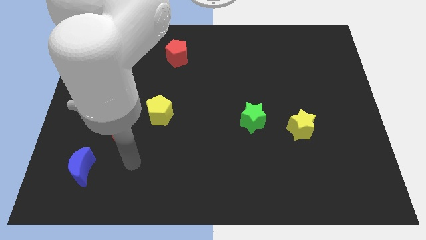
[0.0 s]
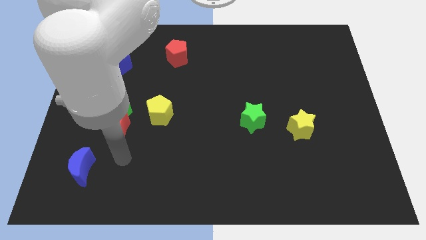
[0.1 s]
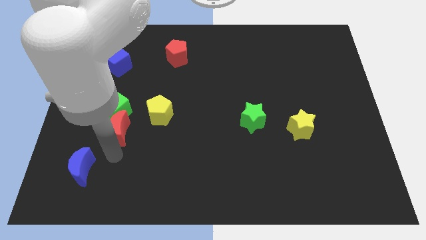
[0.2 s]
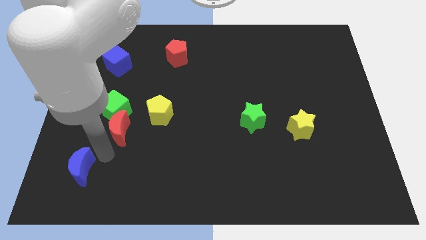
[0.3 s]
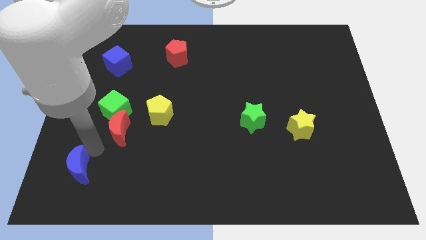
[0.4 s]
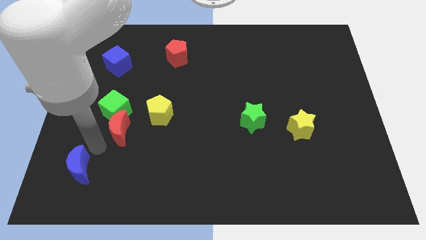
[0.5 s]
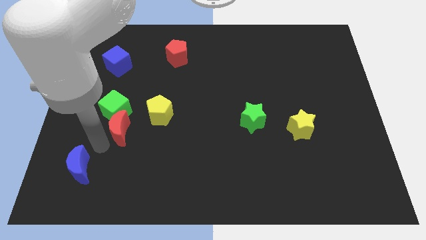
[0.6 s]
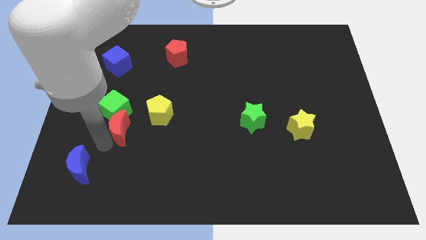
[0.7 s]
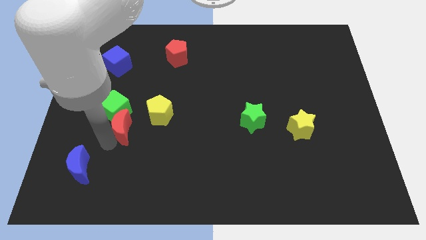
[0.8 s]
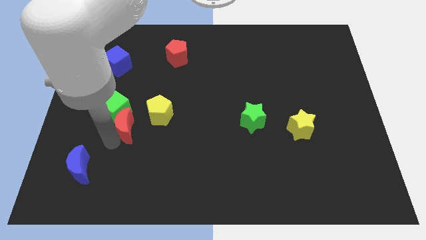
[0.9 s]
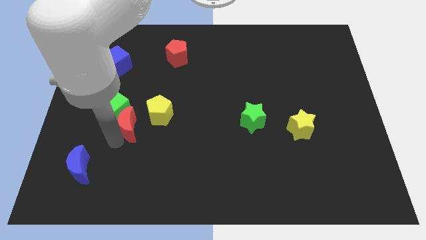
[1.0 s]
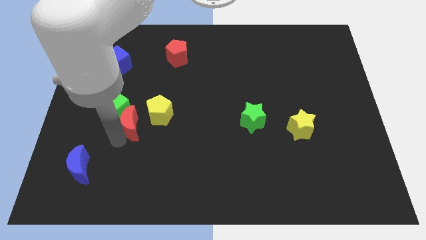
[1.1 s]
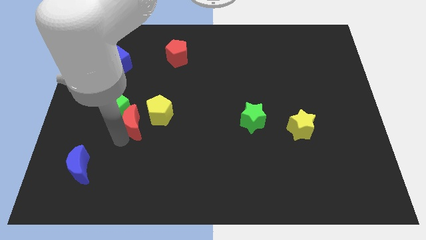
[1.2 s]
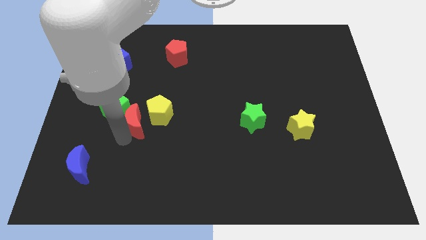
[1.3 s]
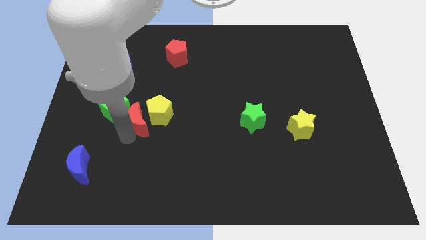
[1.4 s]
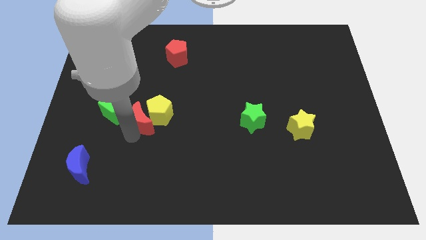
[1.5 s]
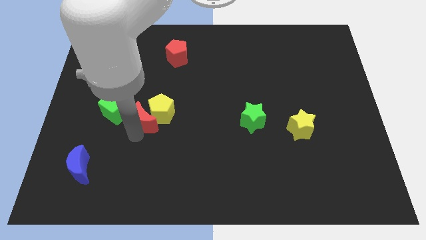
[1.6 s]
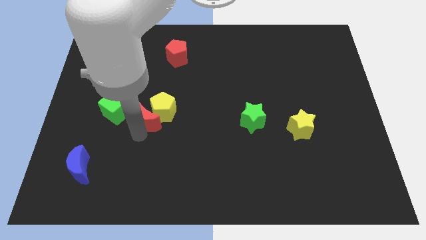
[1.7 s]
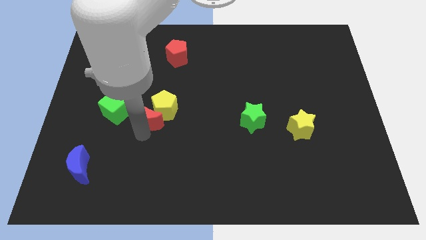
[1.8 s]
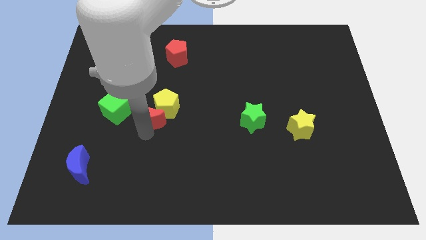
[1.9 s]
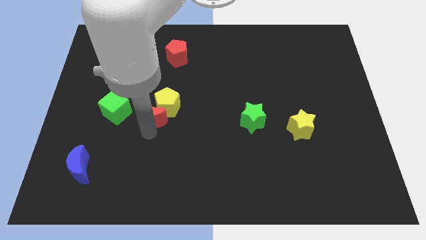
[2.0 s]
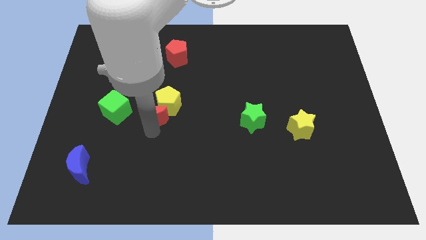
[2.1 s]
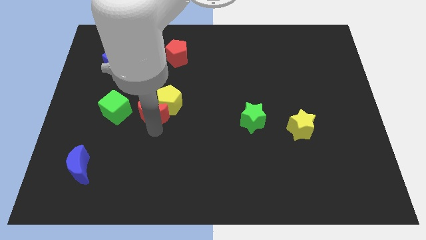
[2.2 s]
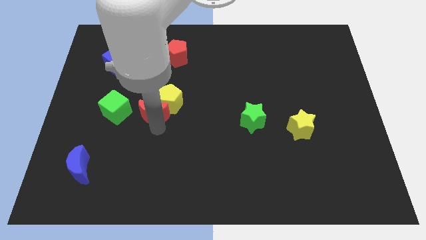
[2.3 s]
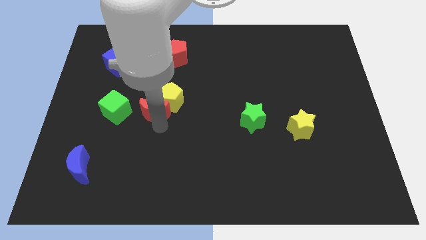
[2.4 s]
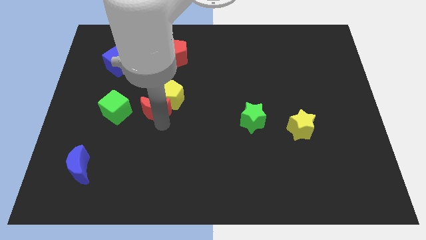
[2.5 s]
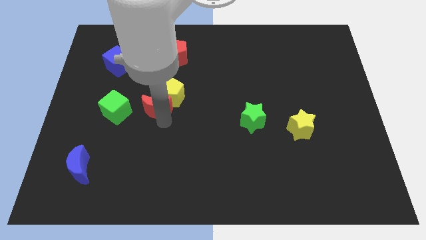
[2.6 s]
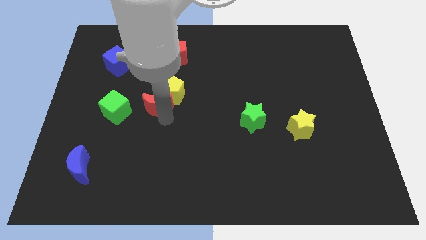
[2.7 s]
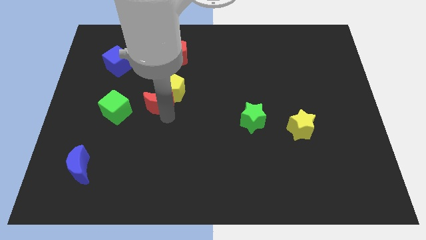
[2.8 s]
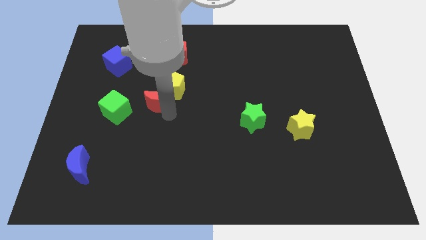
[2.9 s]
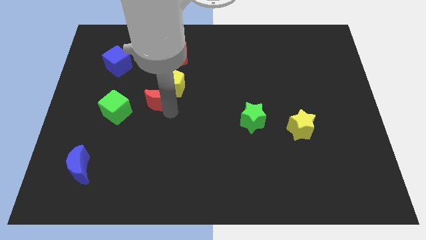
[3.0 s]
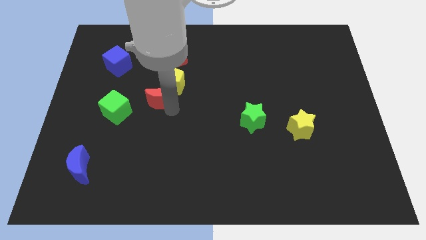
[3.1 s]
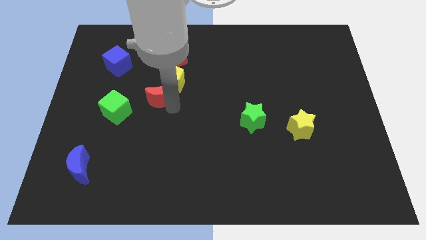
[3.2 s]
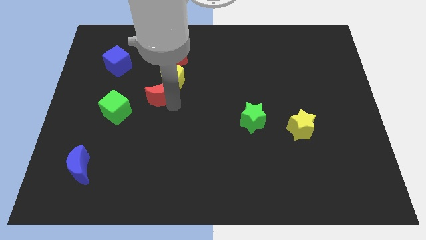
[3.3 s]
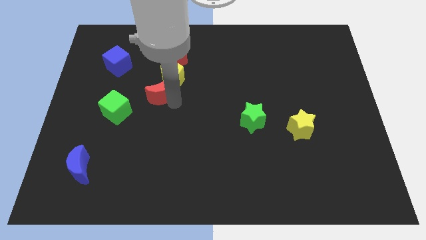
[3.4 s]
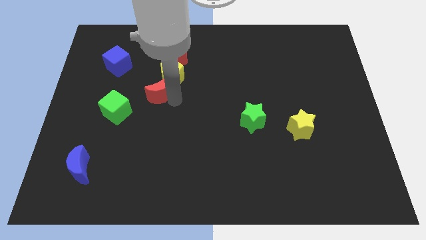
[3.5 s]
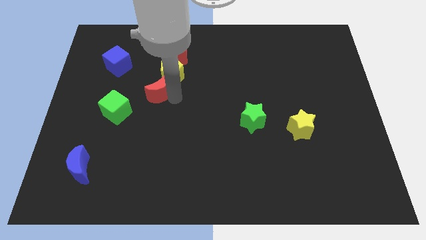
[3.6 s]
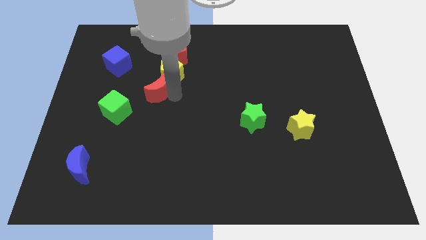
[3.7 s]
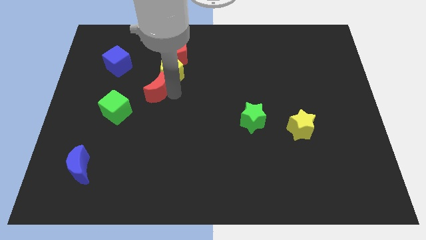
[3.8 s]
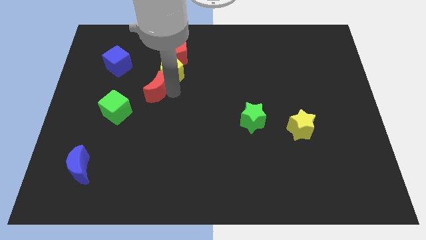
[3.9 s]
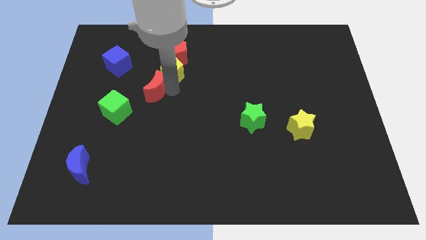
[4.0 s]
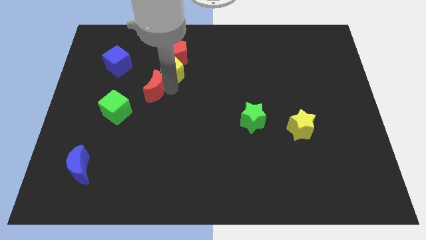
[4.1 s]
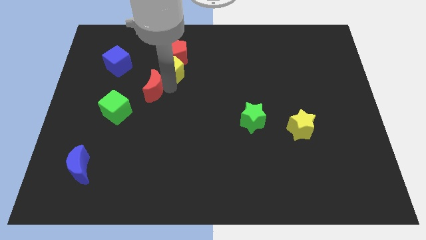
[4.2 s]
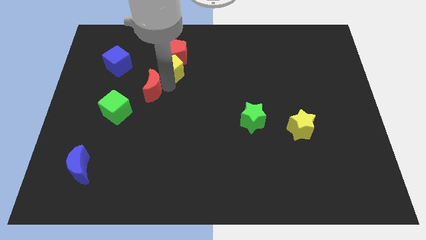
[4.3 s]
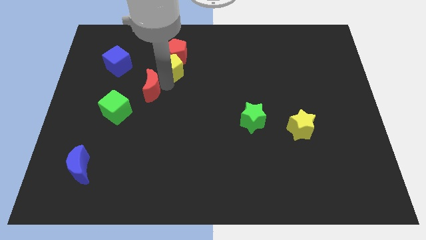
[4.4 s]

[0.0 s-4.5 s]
push the red moon diagonally down and to the right of the blue cube

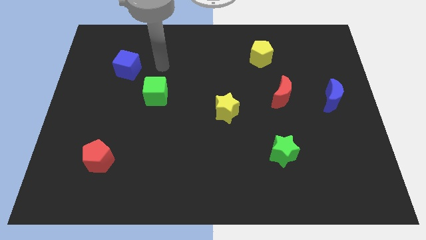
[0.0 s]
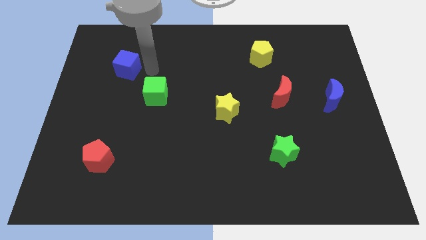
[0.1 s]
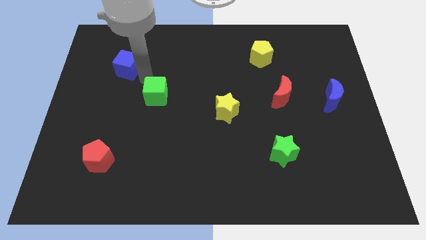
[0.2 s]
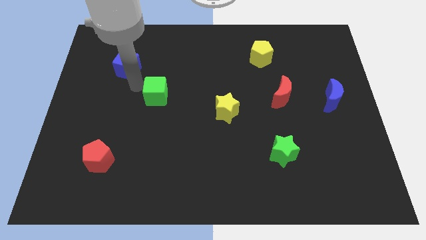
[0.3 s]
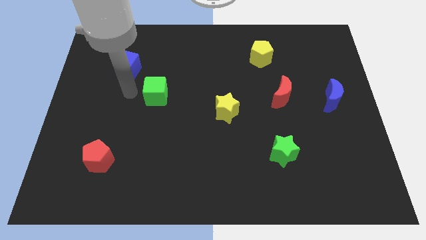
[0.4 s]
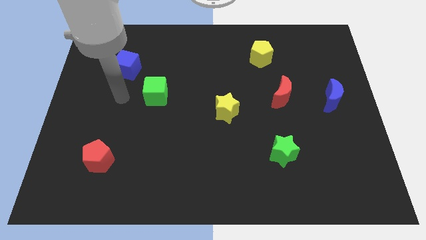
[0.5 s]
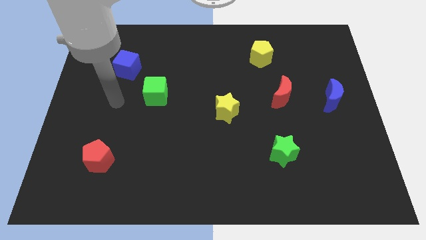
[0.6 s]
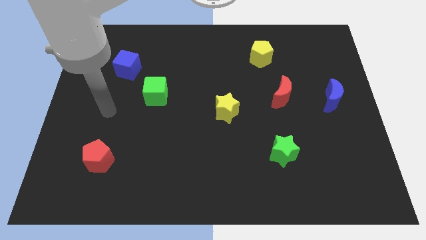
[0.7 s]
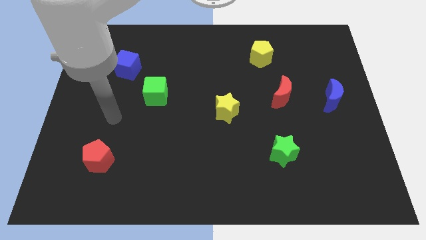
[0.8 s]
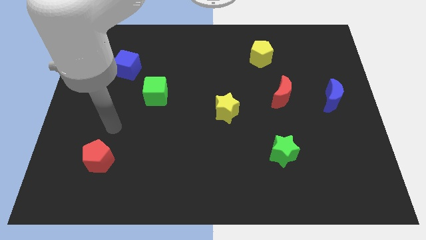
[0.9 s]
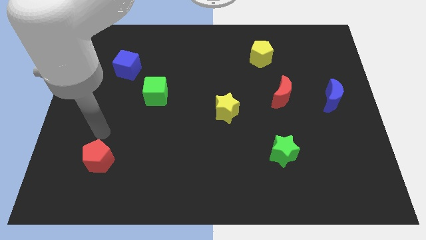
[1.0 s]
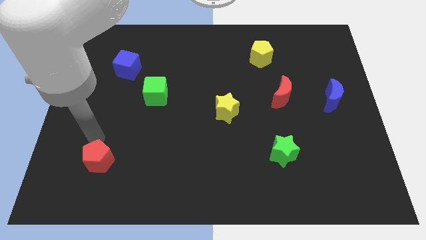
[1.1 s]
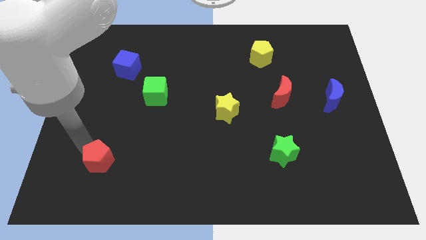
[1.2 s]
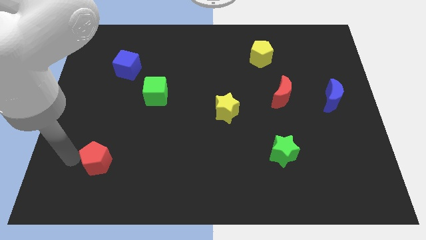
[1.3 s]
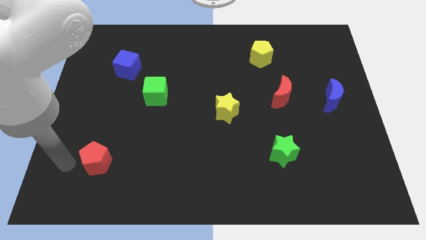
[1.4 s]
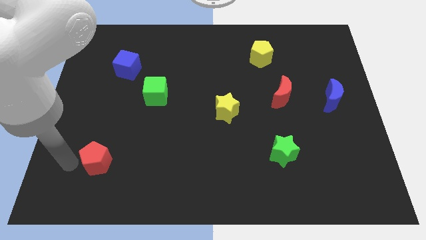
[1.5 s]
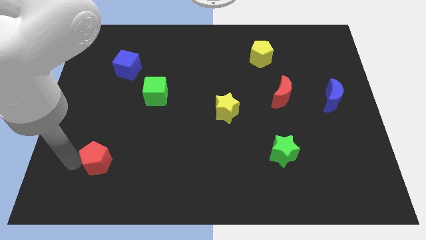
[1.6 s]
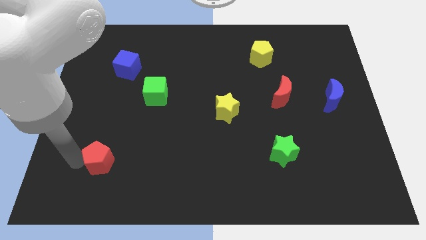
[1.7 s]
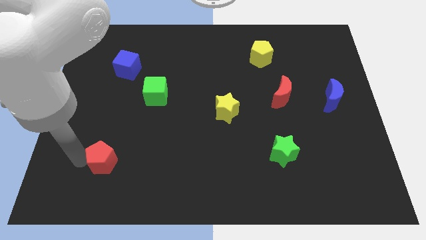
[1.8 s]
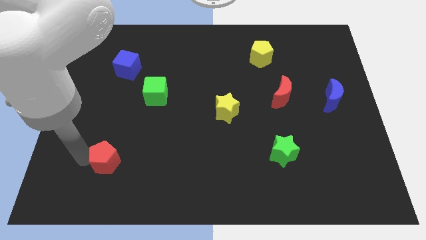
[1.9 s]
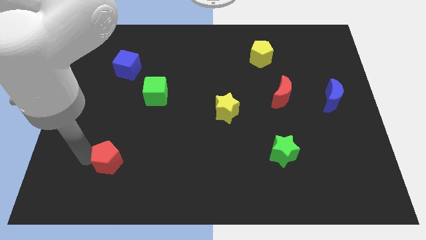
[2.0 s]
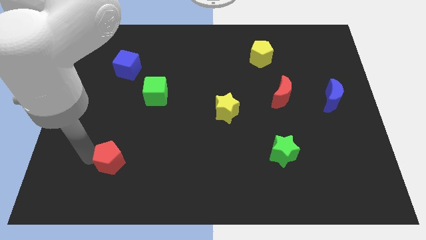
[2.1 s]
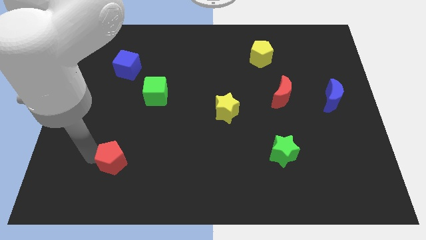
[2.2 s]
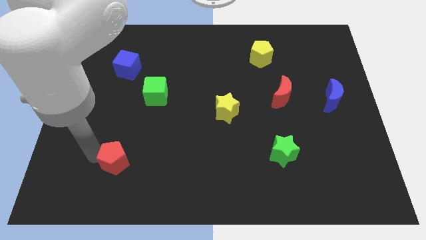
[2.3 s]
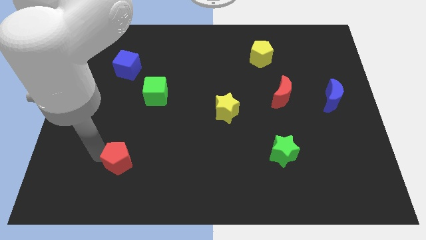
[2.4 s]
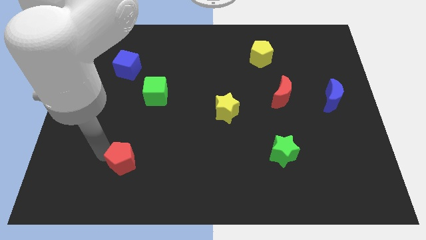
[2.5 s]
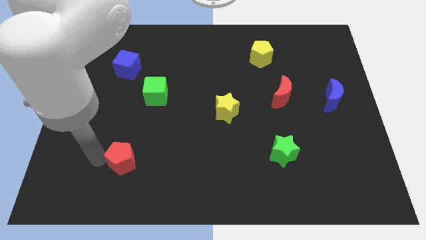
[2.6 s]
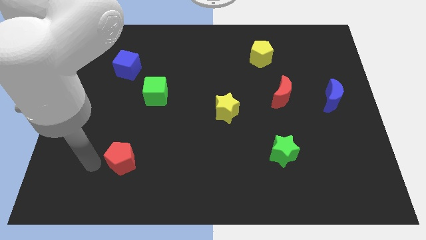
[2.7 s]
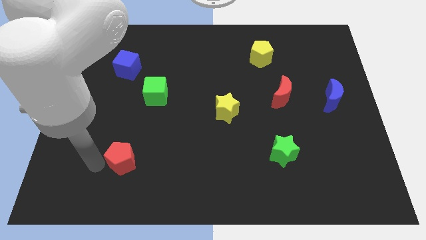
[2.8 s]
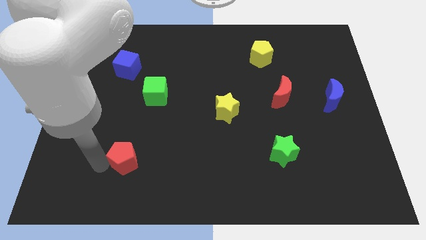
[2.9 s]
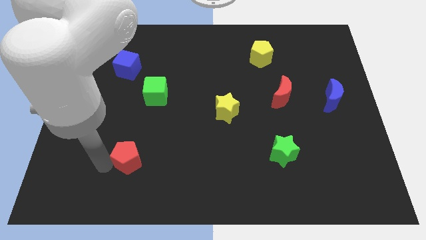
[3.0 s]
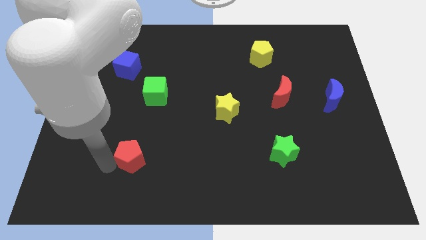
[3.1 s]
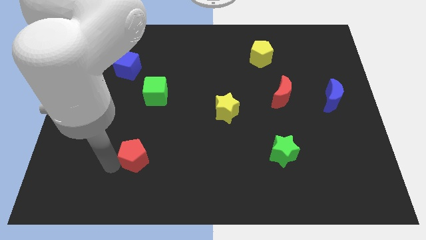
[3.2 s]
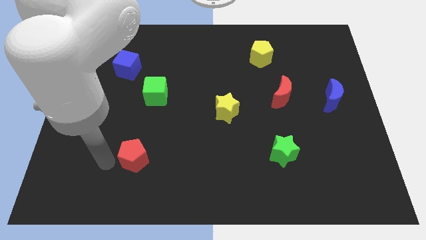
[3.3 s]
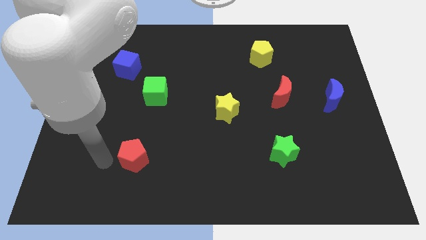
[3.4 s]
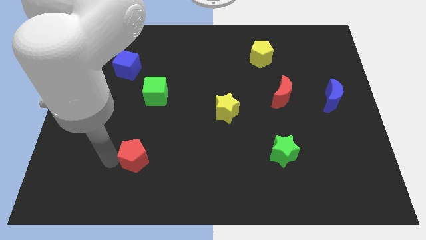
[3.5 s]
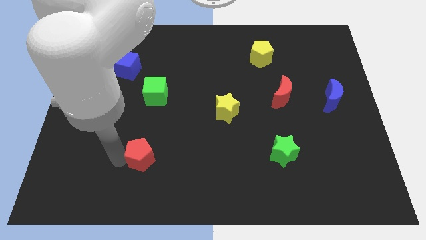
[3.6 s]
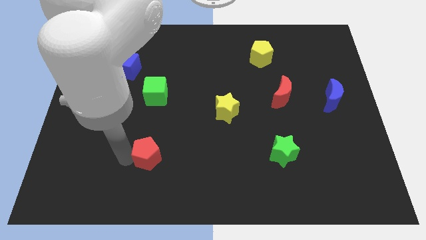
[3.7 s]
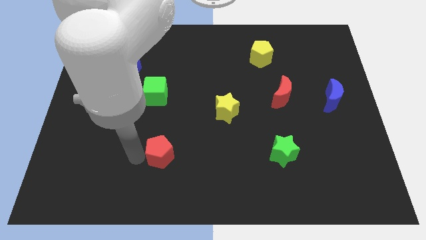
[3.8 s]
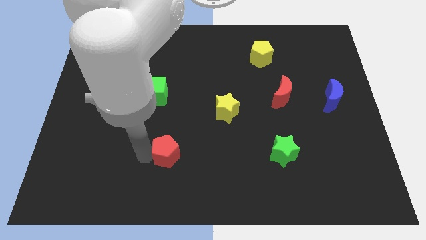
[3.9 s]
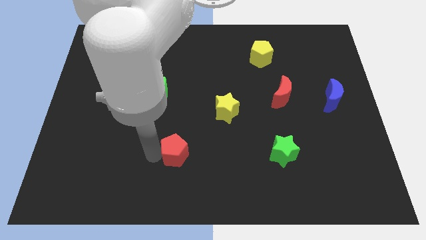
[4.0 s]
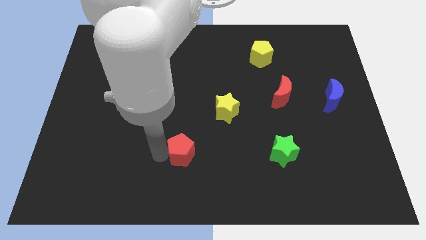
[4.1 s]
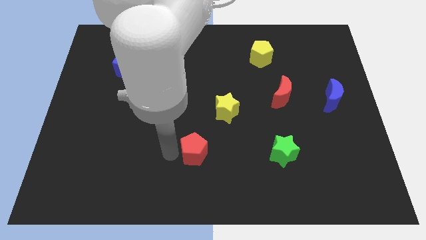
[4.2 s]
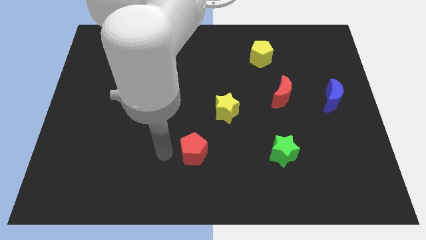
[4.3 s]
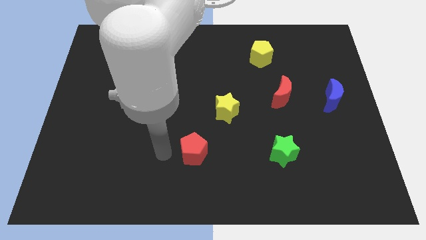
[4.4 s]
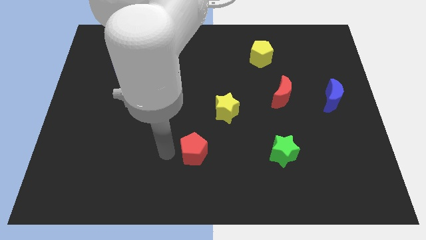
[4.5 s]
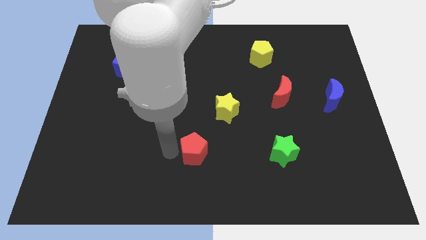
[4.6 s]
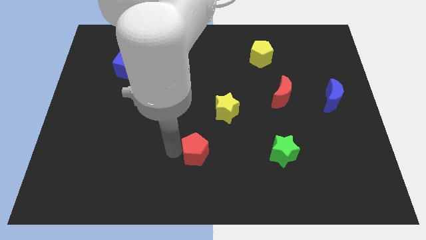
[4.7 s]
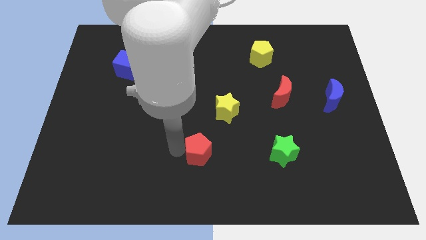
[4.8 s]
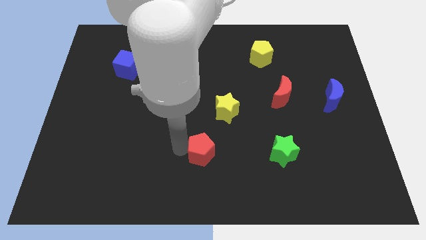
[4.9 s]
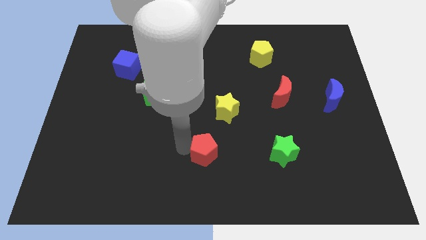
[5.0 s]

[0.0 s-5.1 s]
put the red pentagon to the bottom of the yellow star
